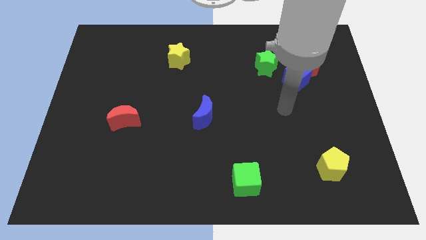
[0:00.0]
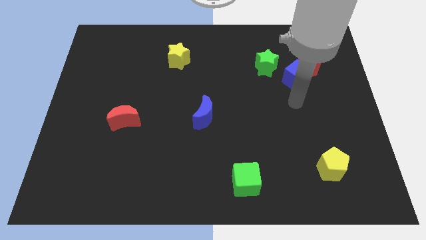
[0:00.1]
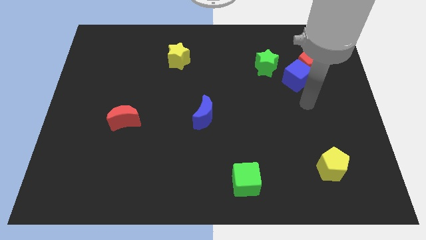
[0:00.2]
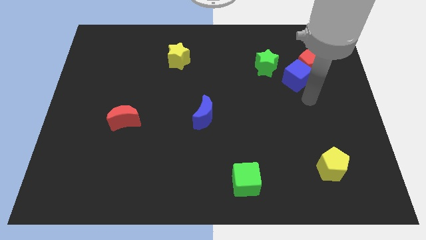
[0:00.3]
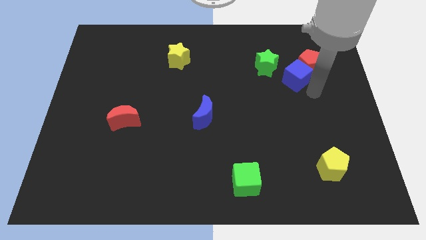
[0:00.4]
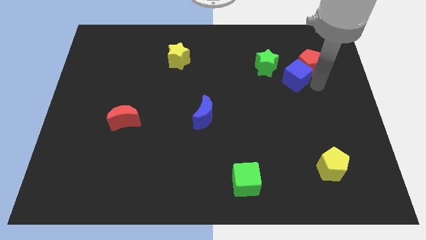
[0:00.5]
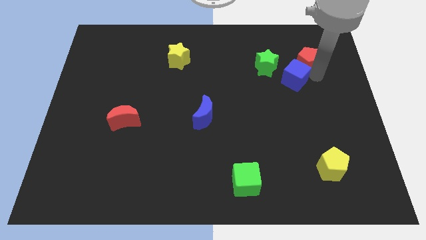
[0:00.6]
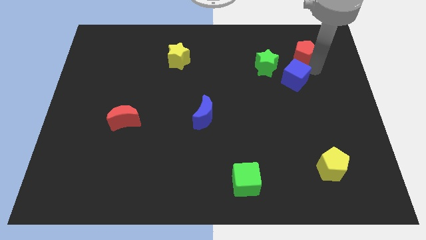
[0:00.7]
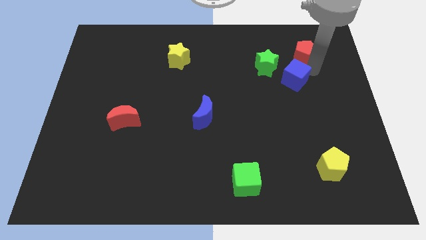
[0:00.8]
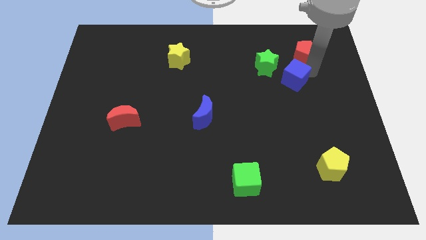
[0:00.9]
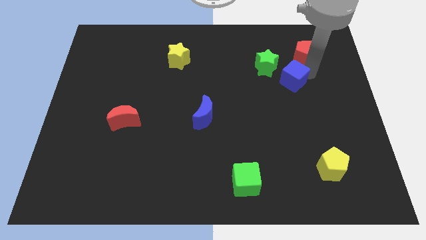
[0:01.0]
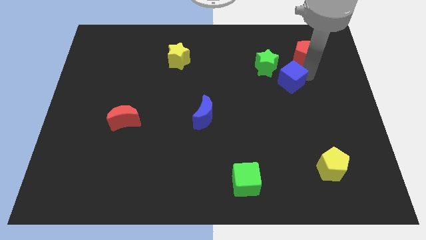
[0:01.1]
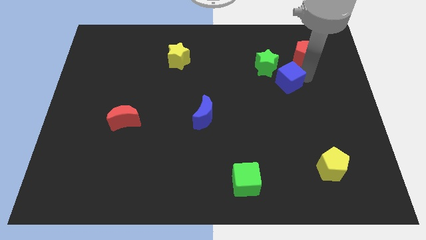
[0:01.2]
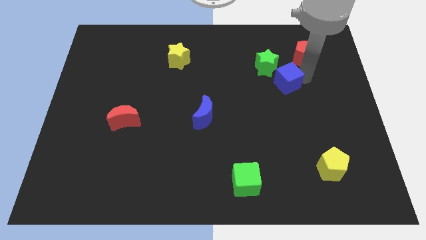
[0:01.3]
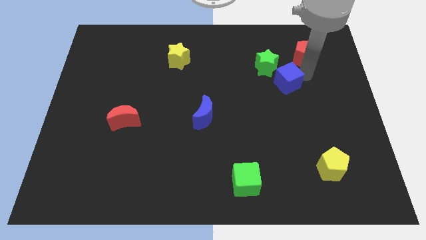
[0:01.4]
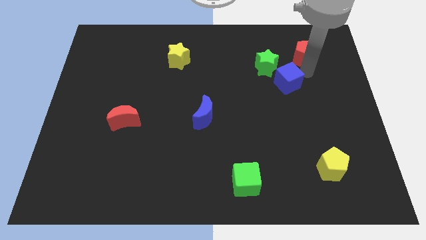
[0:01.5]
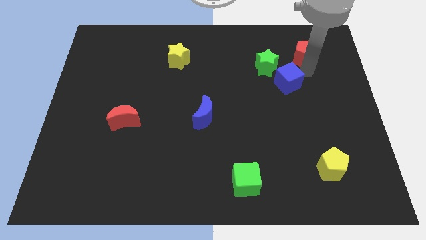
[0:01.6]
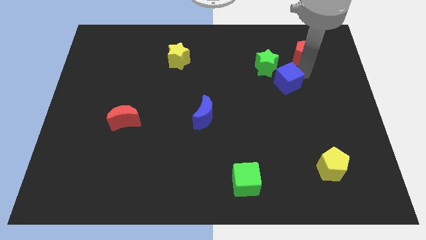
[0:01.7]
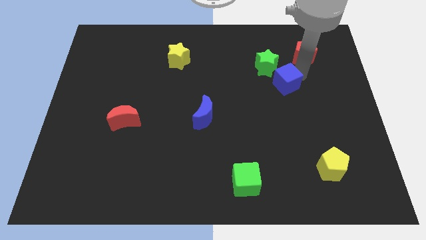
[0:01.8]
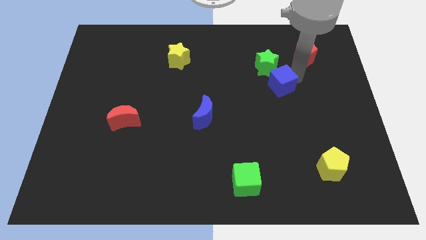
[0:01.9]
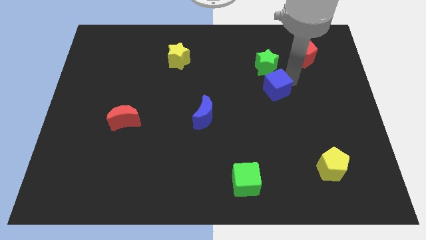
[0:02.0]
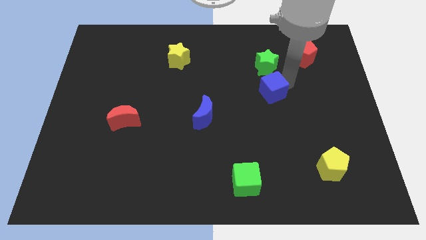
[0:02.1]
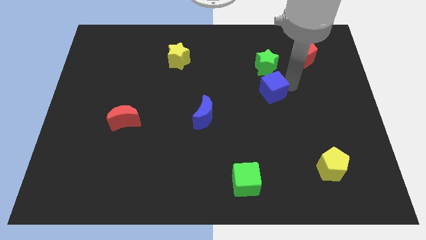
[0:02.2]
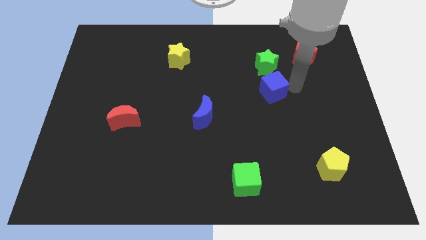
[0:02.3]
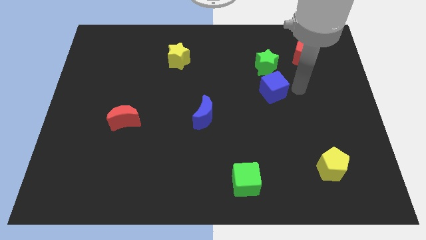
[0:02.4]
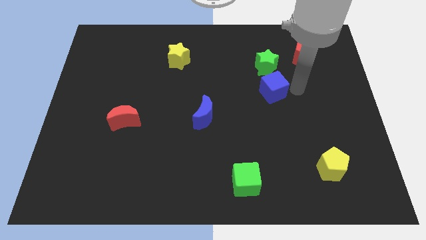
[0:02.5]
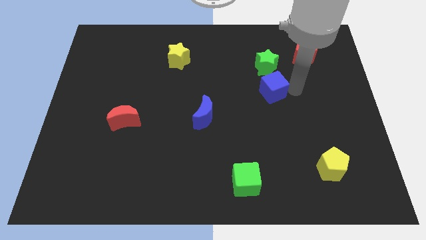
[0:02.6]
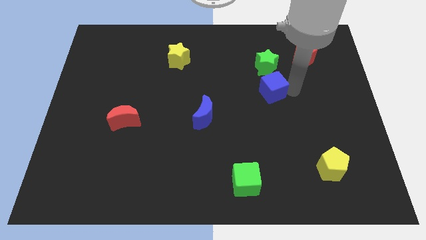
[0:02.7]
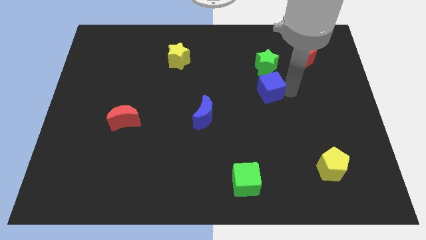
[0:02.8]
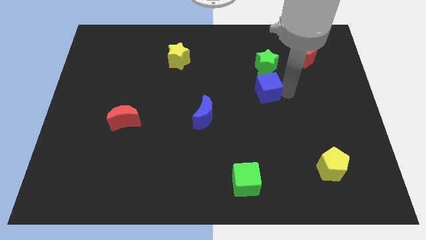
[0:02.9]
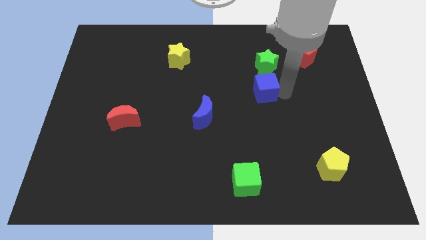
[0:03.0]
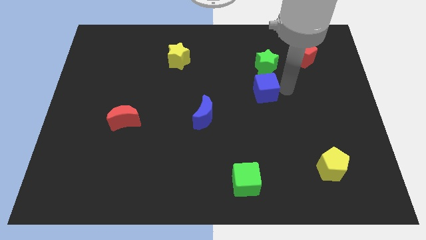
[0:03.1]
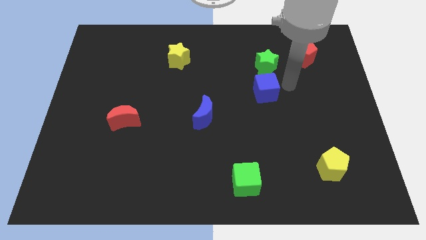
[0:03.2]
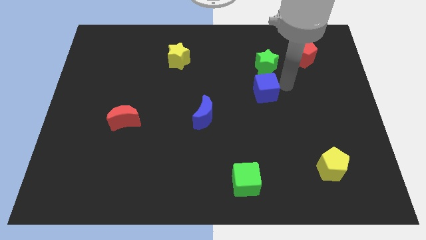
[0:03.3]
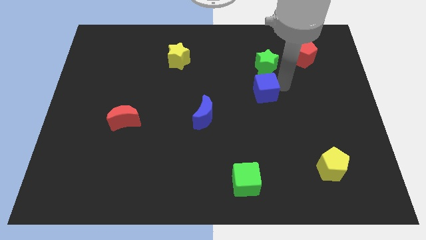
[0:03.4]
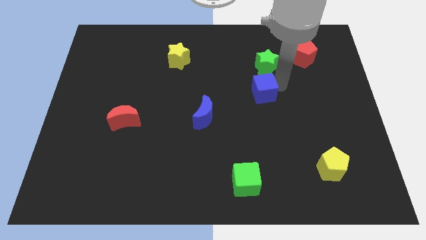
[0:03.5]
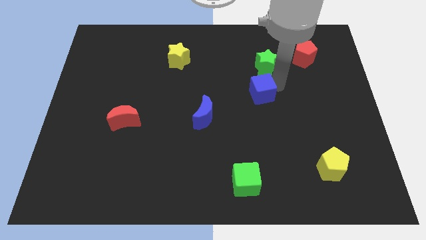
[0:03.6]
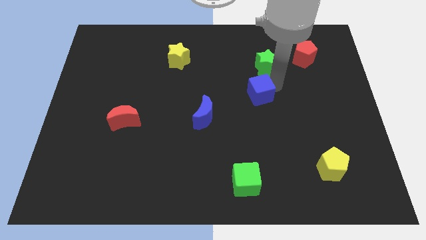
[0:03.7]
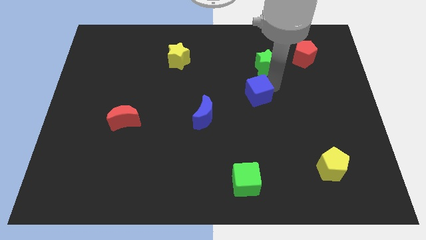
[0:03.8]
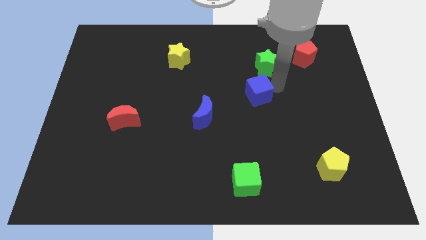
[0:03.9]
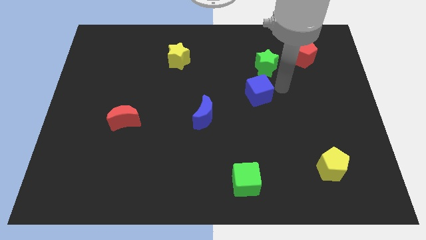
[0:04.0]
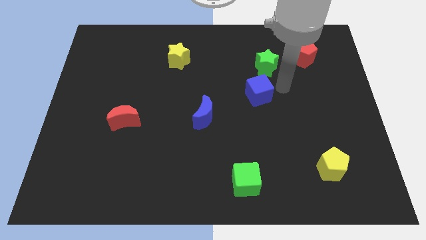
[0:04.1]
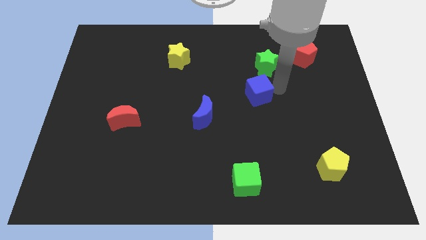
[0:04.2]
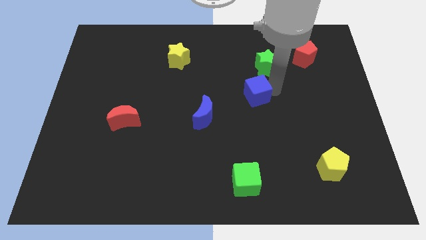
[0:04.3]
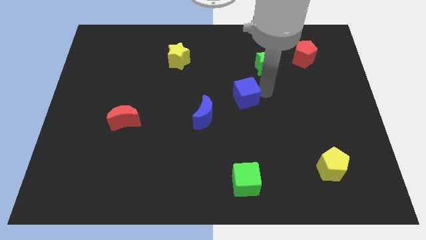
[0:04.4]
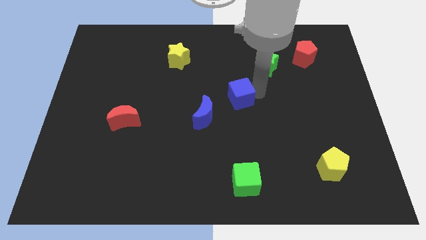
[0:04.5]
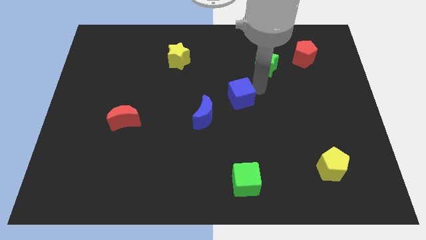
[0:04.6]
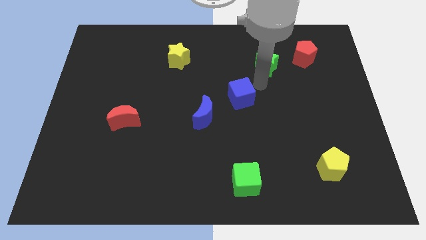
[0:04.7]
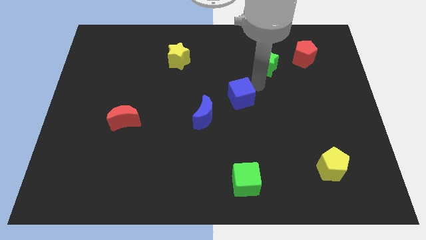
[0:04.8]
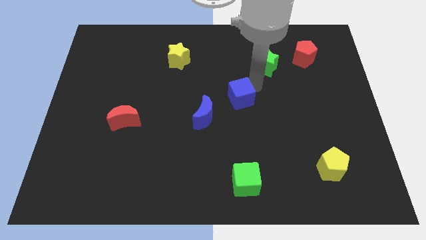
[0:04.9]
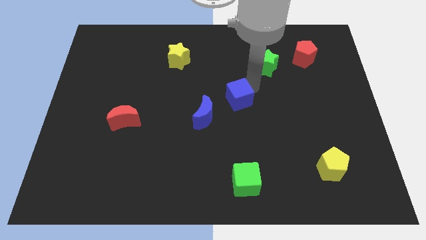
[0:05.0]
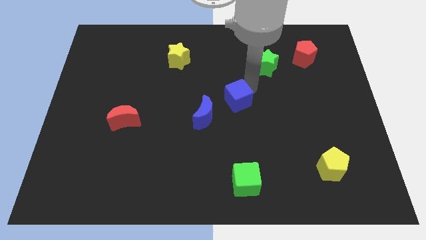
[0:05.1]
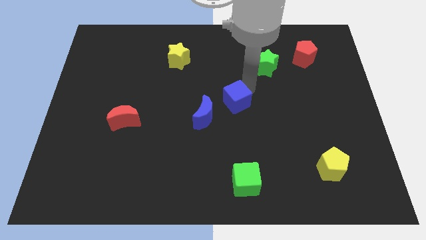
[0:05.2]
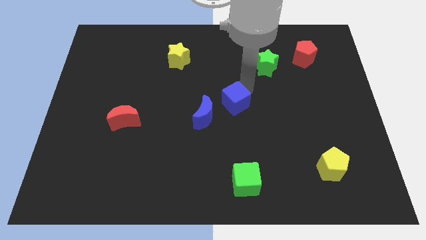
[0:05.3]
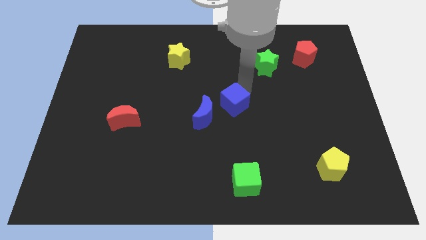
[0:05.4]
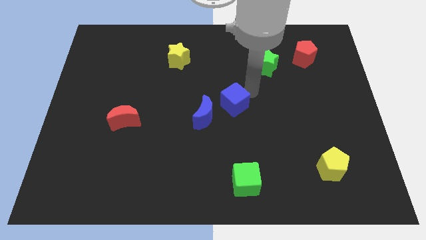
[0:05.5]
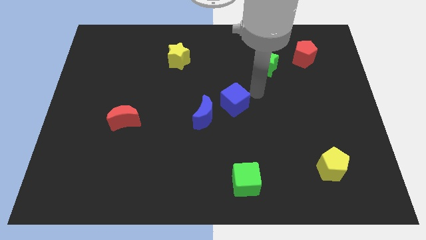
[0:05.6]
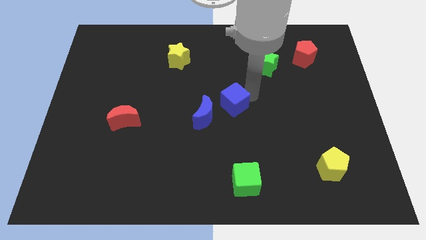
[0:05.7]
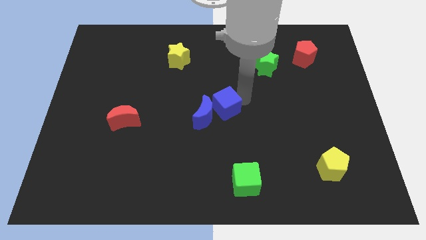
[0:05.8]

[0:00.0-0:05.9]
move the blue cube close to the blue moon

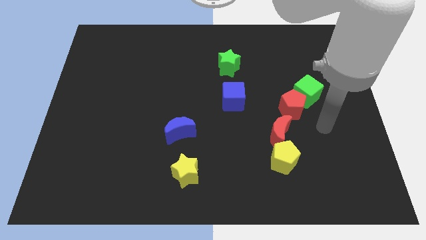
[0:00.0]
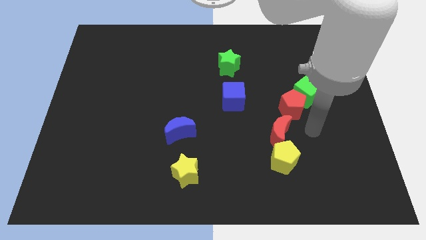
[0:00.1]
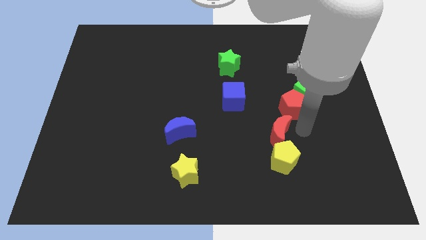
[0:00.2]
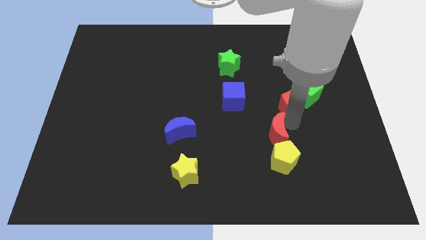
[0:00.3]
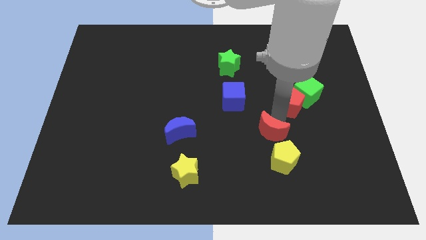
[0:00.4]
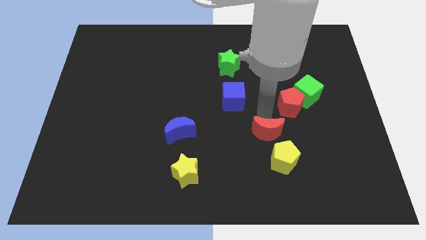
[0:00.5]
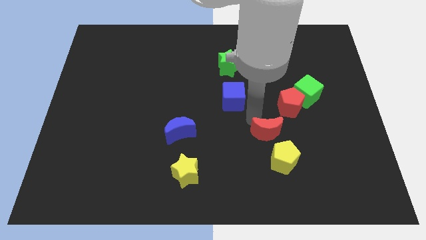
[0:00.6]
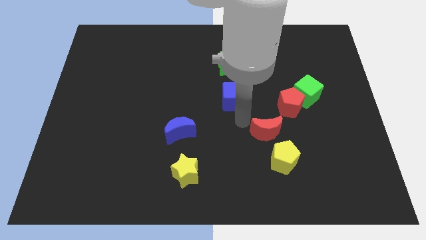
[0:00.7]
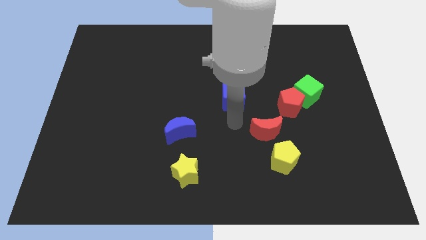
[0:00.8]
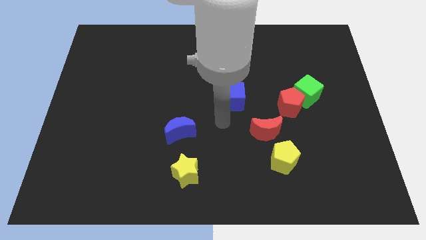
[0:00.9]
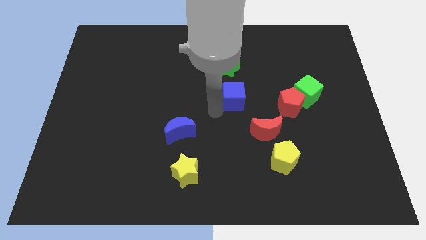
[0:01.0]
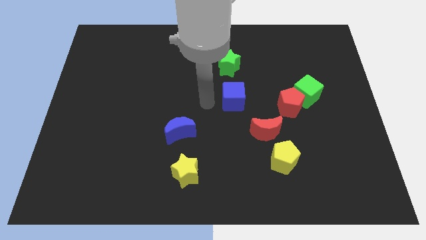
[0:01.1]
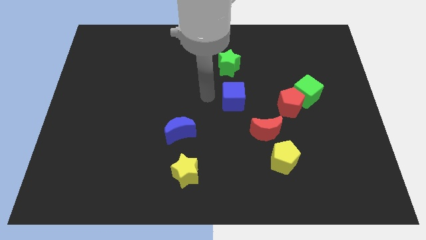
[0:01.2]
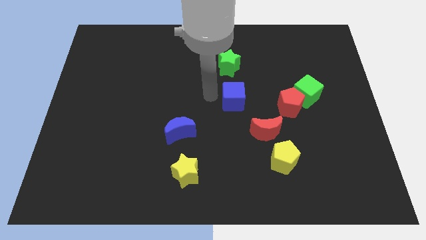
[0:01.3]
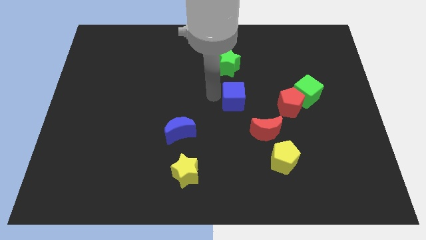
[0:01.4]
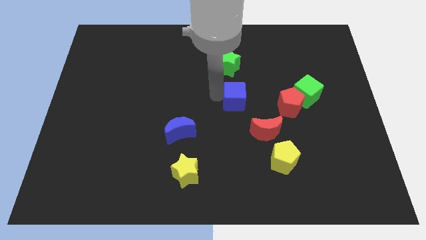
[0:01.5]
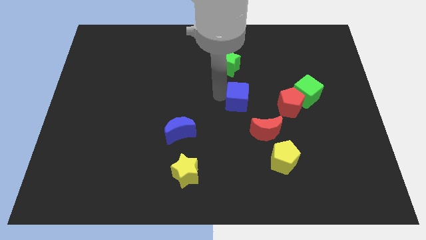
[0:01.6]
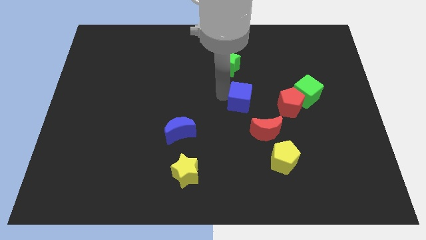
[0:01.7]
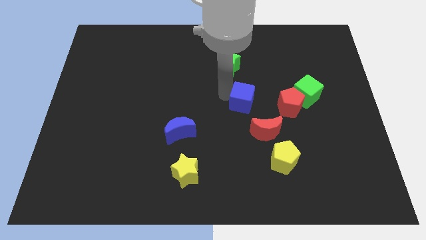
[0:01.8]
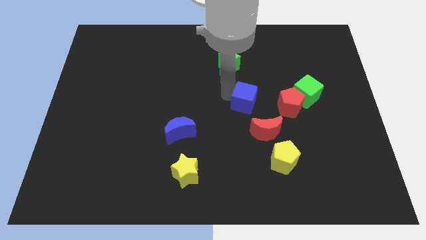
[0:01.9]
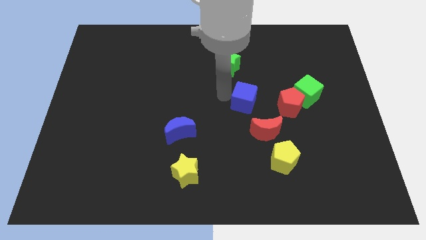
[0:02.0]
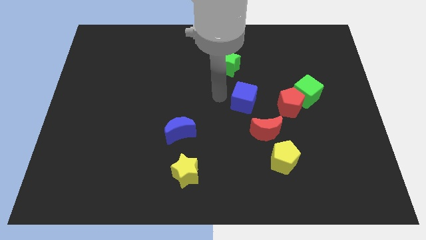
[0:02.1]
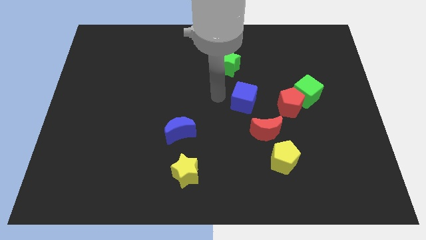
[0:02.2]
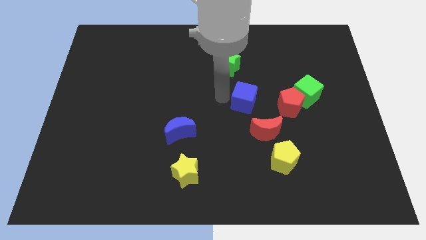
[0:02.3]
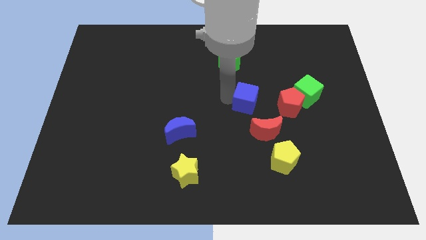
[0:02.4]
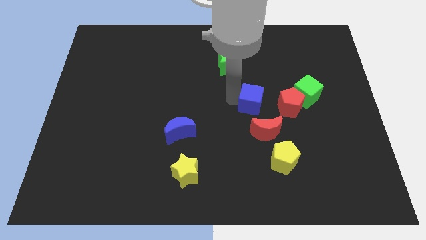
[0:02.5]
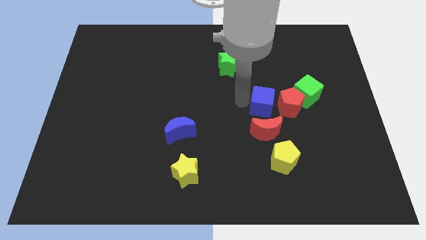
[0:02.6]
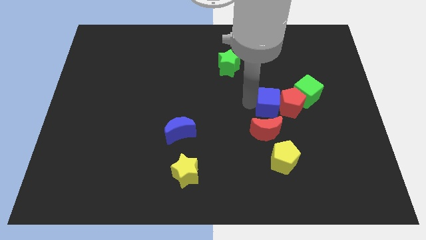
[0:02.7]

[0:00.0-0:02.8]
push the blue cube next to the red pentagon
